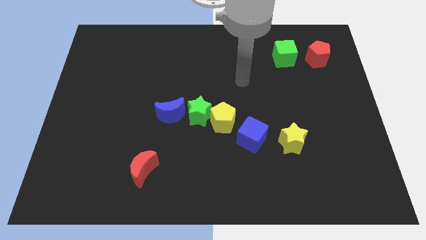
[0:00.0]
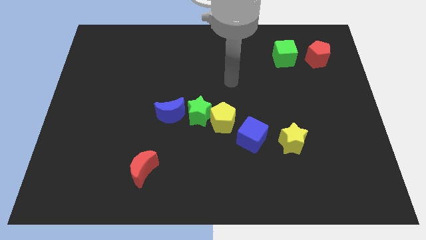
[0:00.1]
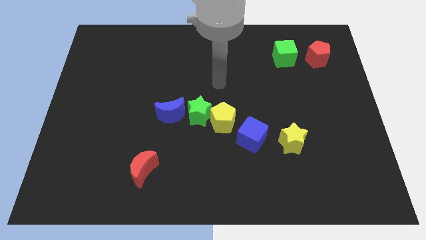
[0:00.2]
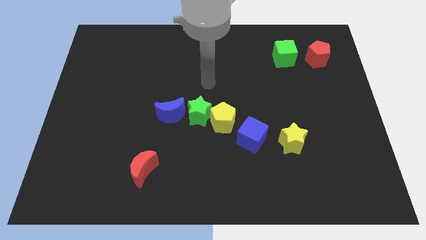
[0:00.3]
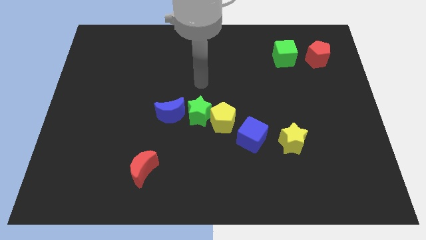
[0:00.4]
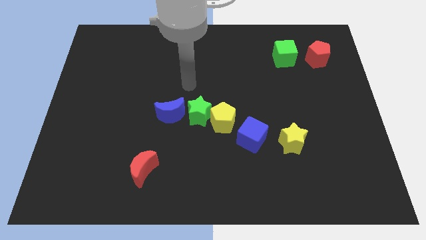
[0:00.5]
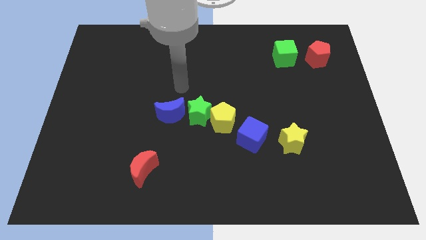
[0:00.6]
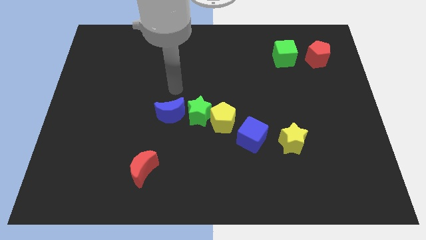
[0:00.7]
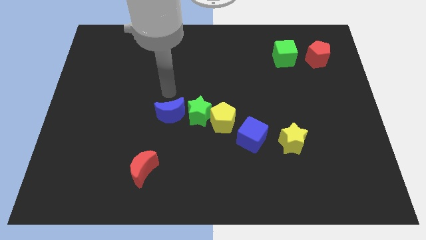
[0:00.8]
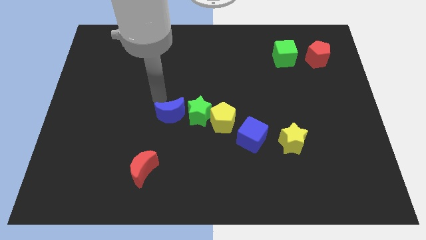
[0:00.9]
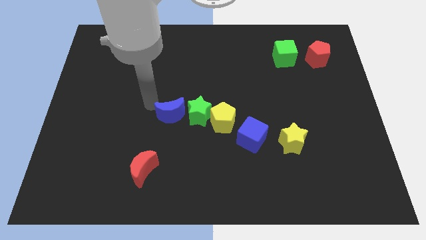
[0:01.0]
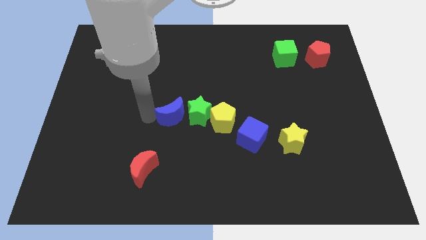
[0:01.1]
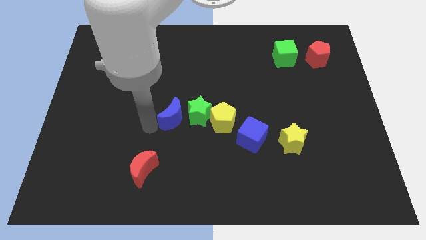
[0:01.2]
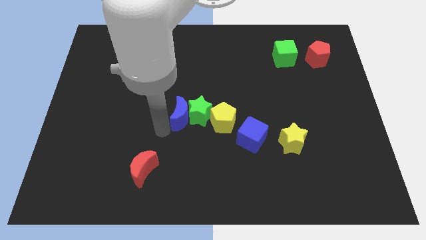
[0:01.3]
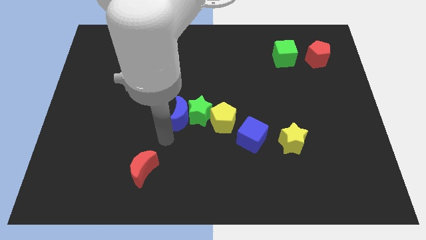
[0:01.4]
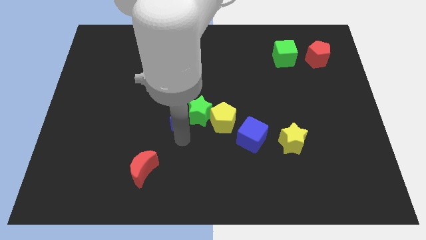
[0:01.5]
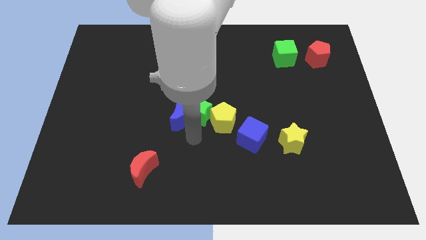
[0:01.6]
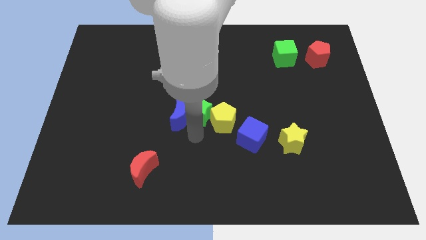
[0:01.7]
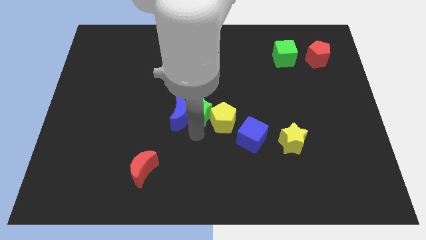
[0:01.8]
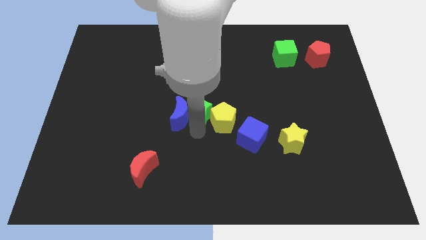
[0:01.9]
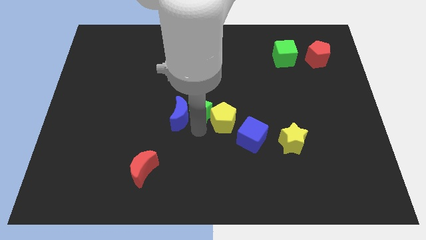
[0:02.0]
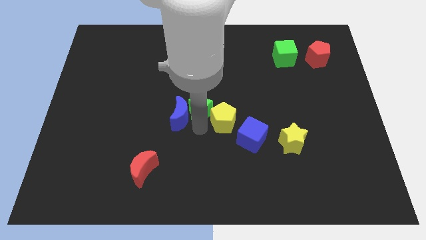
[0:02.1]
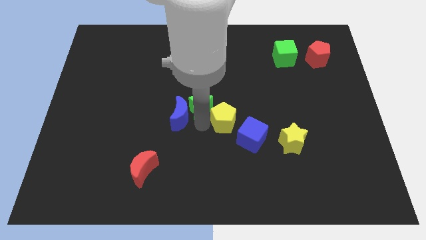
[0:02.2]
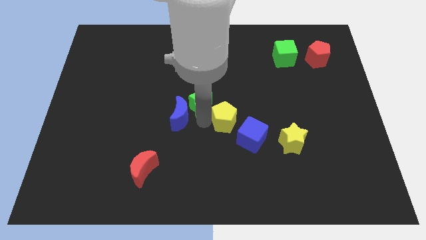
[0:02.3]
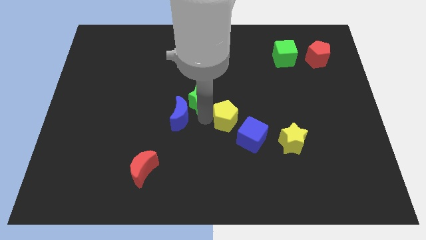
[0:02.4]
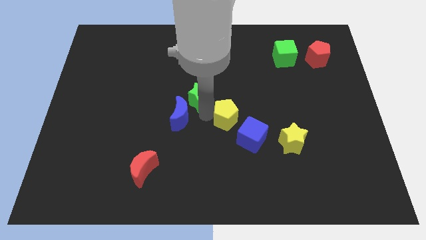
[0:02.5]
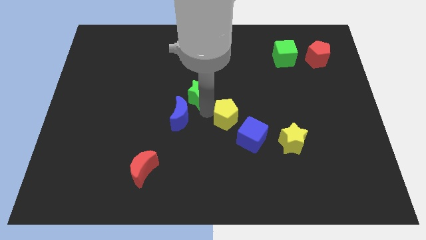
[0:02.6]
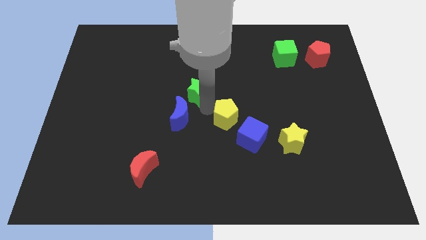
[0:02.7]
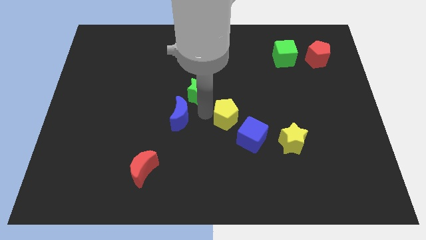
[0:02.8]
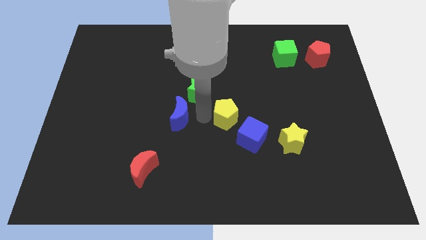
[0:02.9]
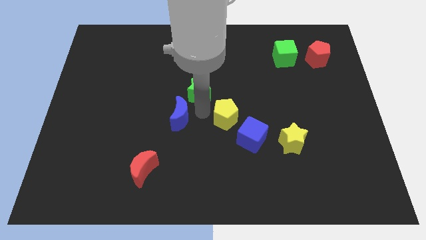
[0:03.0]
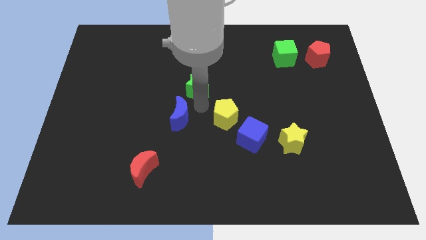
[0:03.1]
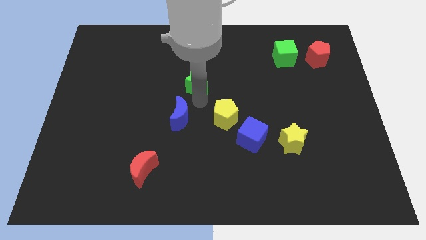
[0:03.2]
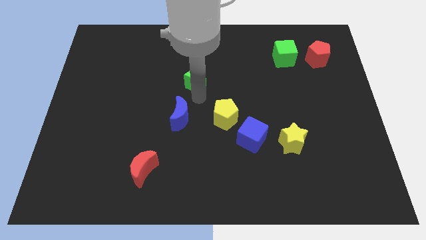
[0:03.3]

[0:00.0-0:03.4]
pull the green star apart from the yellow pentagon and blue moon

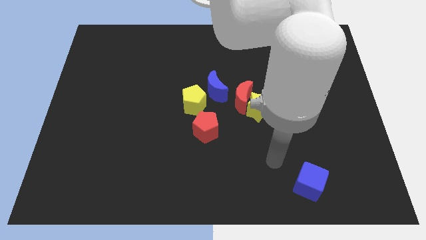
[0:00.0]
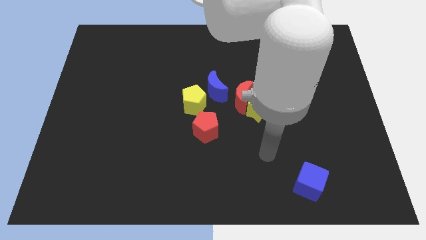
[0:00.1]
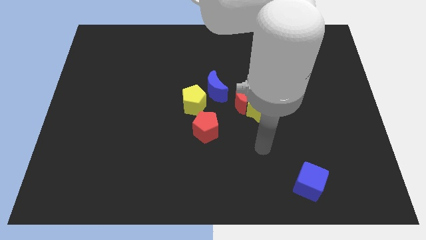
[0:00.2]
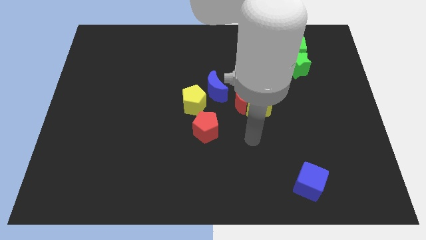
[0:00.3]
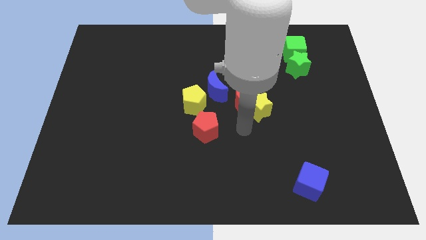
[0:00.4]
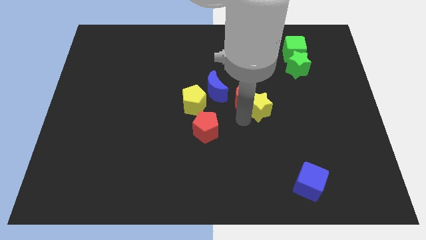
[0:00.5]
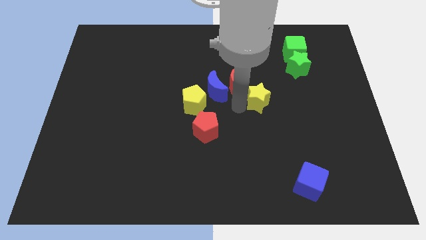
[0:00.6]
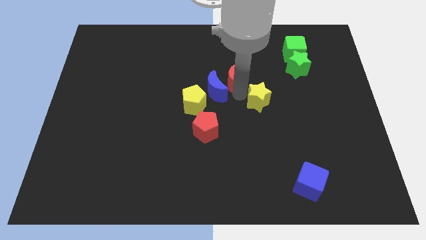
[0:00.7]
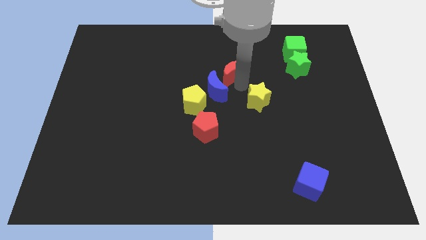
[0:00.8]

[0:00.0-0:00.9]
pull the yellow star apart from the red moon

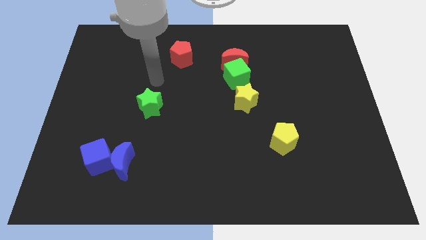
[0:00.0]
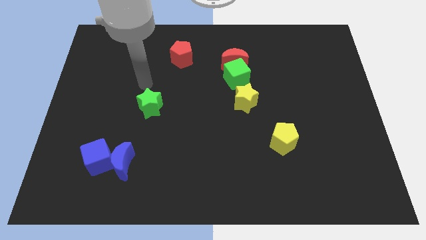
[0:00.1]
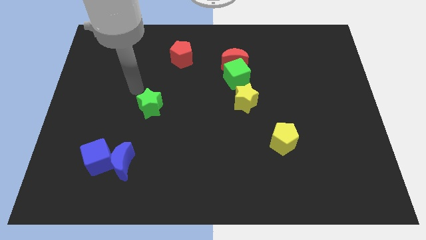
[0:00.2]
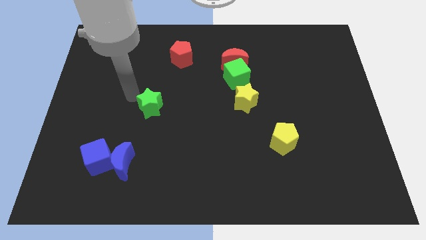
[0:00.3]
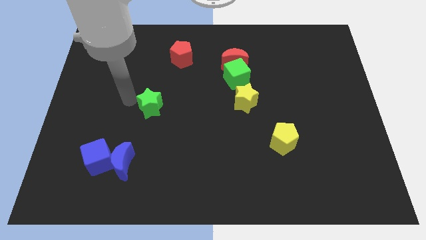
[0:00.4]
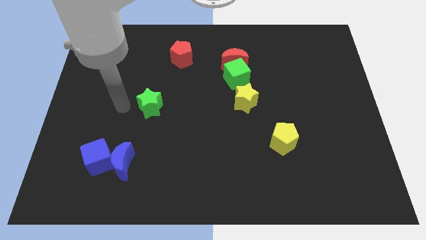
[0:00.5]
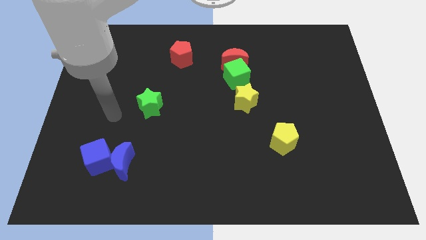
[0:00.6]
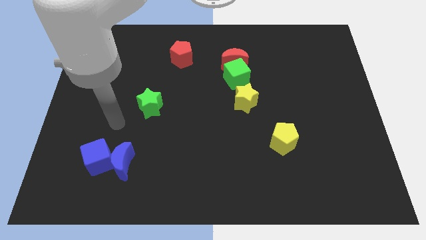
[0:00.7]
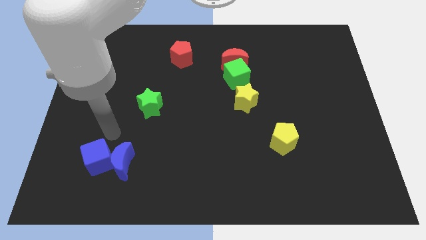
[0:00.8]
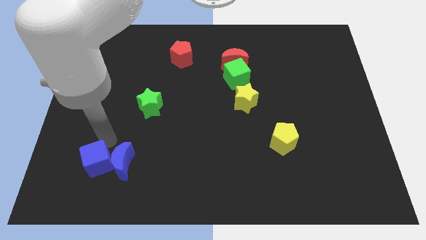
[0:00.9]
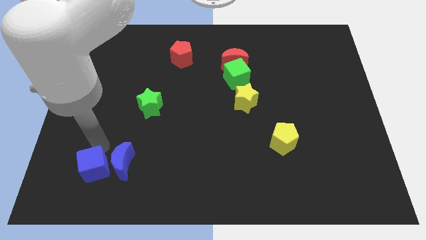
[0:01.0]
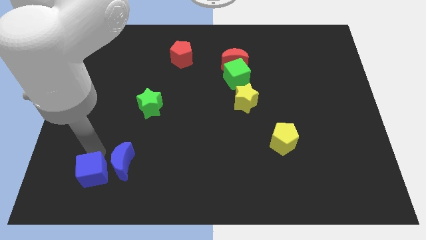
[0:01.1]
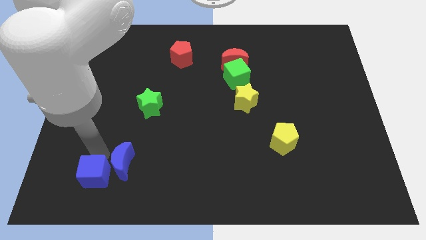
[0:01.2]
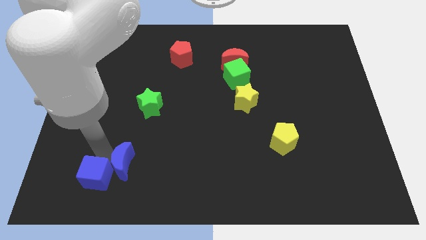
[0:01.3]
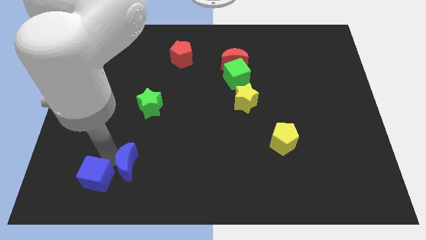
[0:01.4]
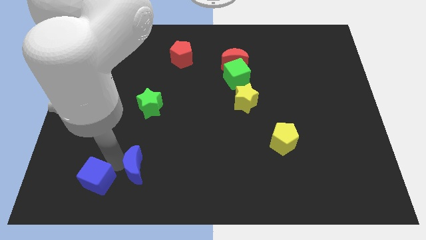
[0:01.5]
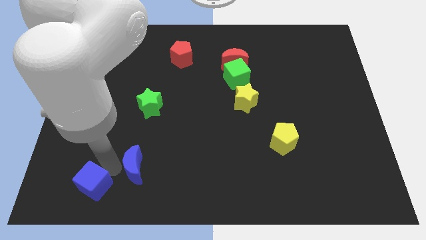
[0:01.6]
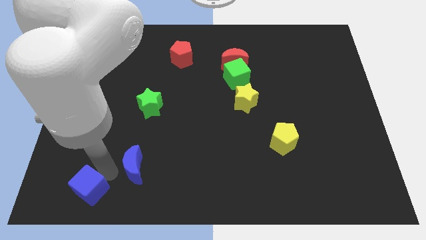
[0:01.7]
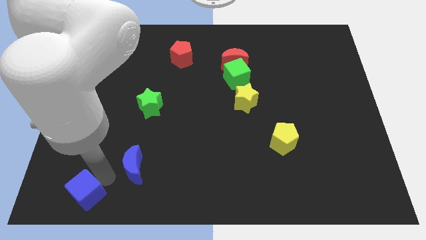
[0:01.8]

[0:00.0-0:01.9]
pull the blue moon apart from the blue cube

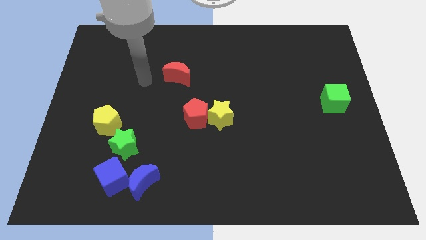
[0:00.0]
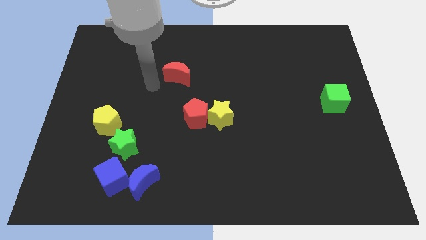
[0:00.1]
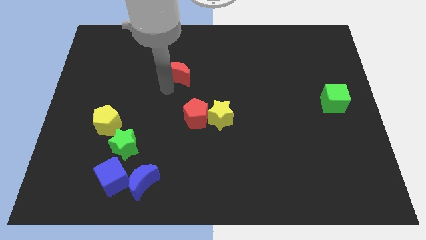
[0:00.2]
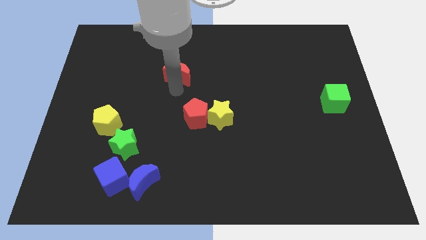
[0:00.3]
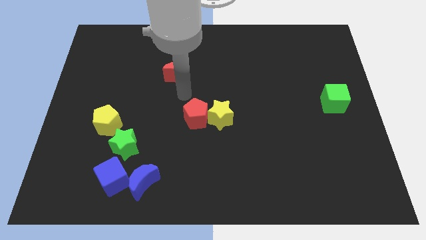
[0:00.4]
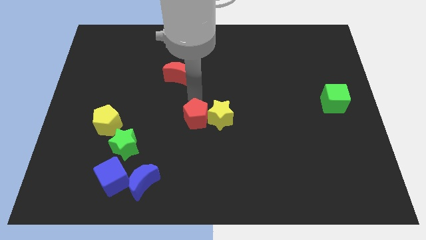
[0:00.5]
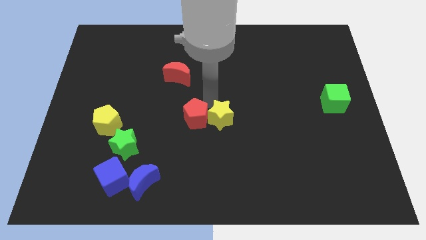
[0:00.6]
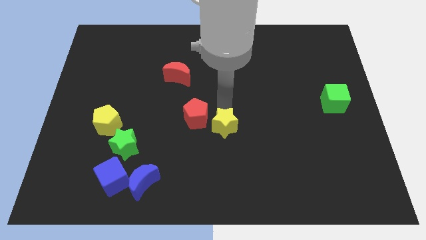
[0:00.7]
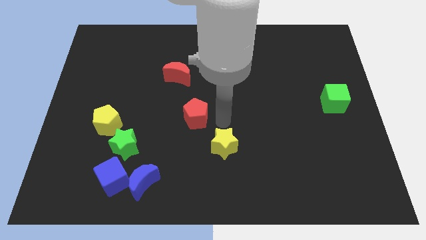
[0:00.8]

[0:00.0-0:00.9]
separate the red pentagon from the yellow star

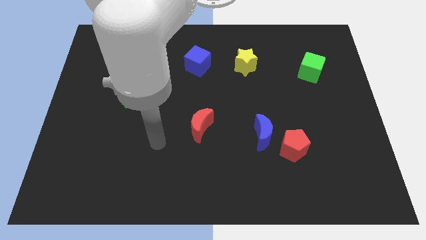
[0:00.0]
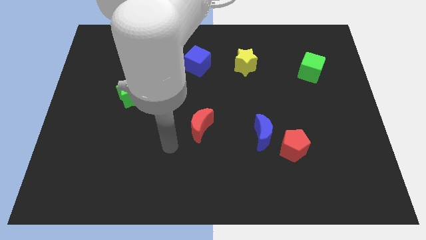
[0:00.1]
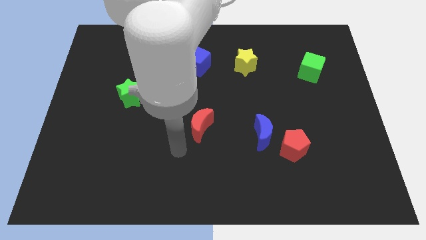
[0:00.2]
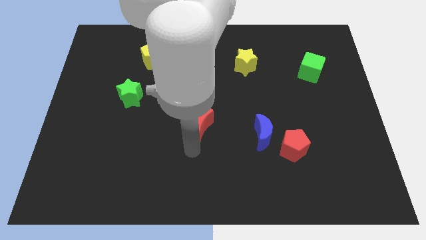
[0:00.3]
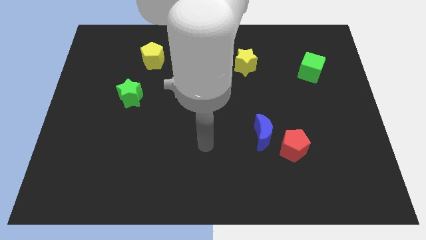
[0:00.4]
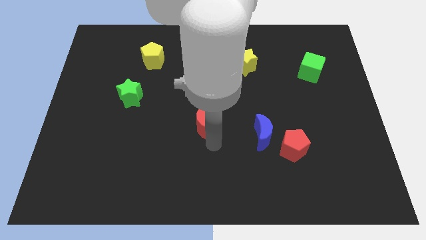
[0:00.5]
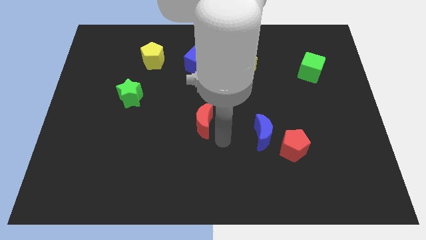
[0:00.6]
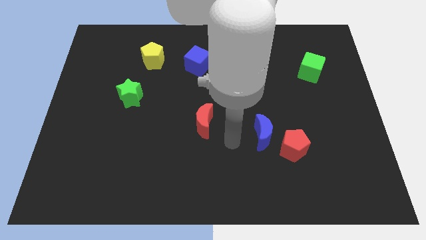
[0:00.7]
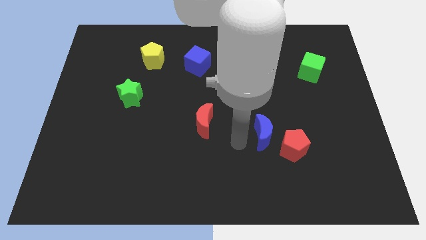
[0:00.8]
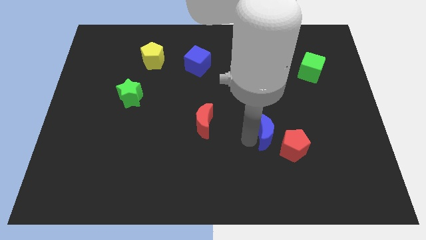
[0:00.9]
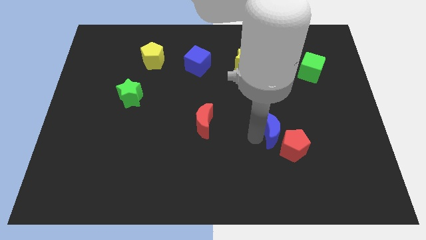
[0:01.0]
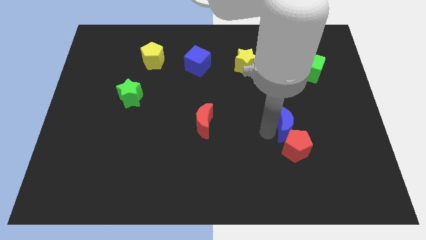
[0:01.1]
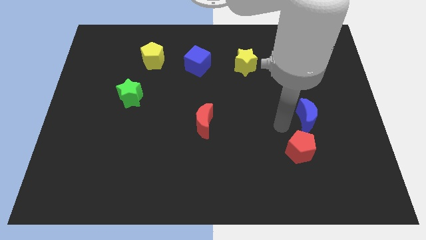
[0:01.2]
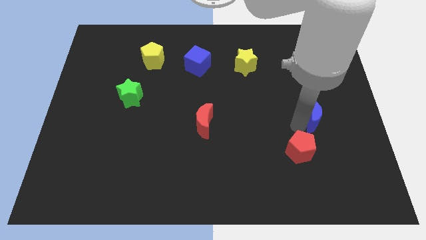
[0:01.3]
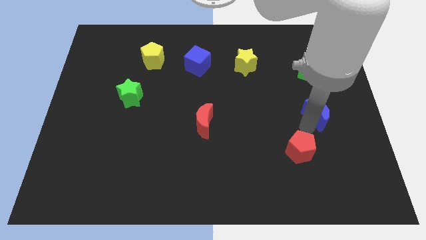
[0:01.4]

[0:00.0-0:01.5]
move the red pentagon away from the blue moon

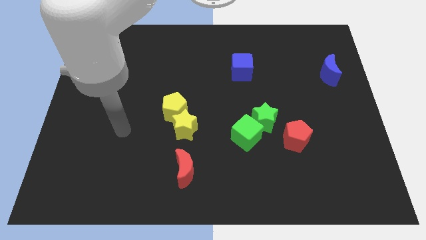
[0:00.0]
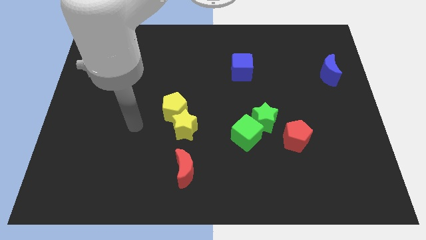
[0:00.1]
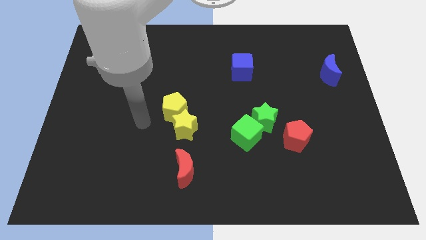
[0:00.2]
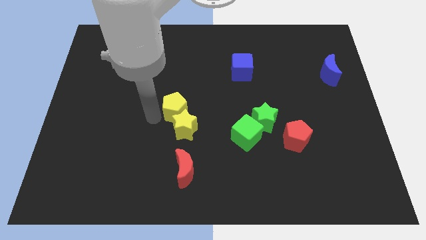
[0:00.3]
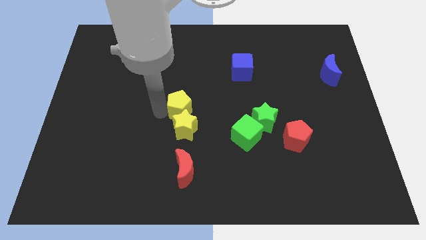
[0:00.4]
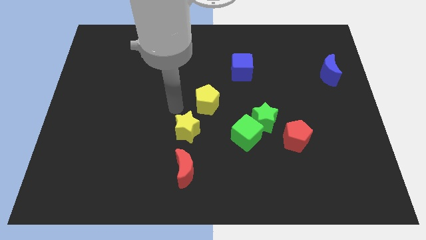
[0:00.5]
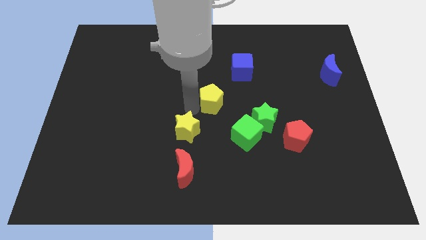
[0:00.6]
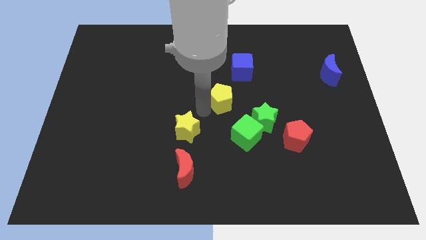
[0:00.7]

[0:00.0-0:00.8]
separate the yellow star from the yellow pentagon
